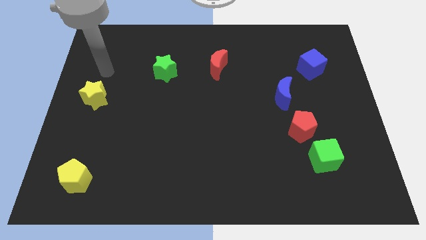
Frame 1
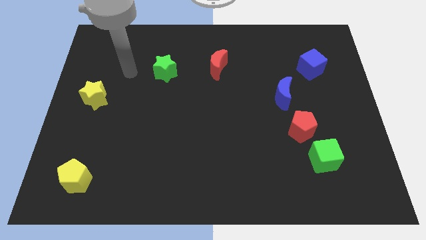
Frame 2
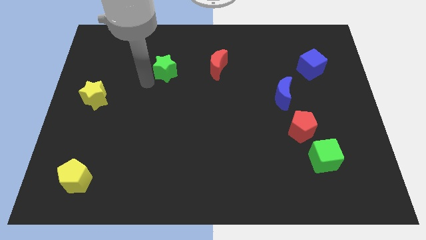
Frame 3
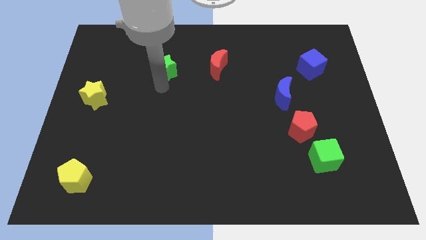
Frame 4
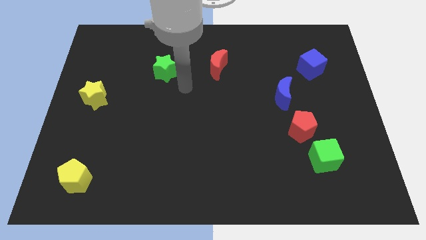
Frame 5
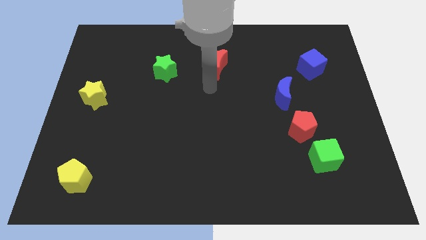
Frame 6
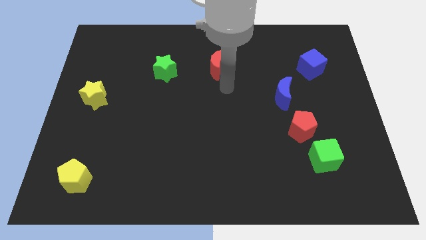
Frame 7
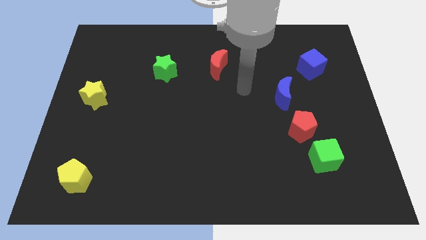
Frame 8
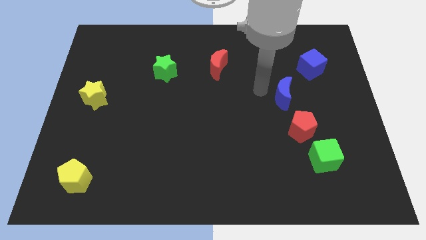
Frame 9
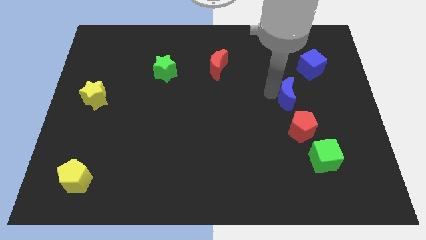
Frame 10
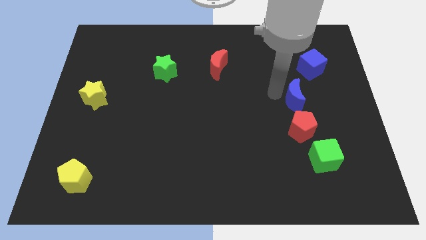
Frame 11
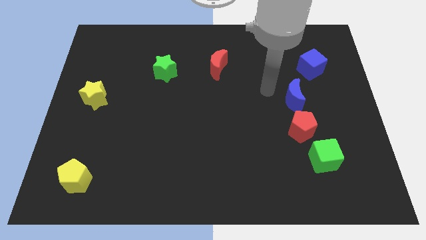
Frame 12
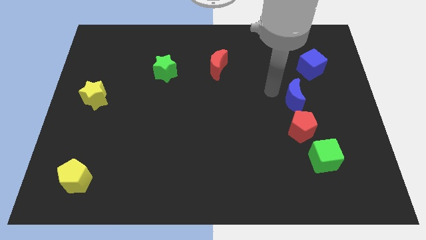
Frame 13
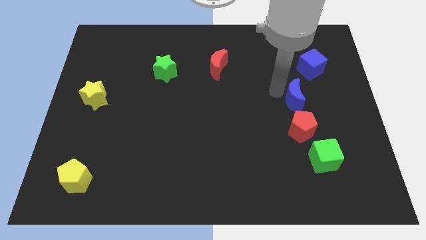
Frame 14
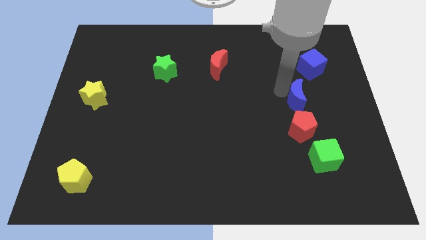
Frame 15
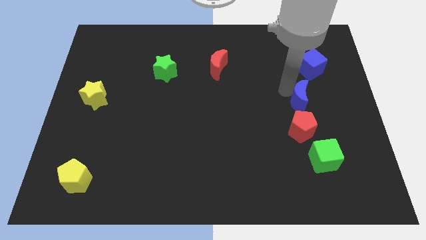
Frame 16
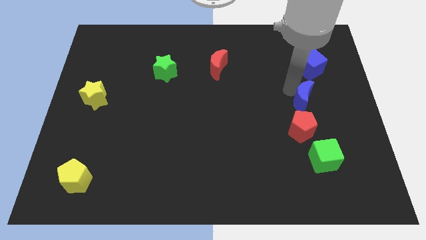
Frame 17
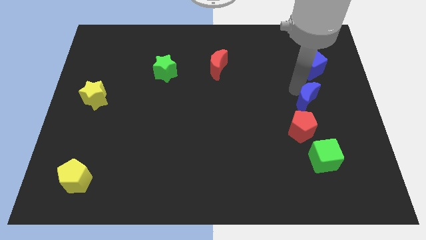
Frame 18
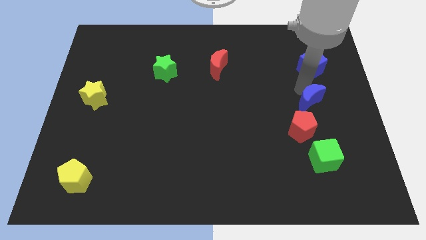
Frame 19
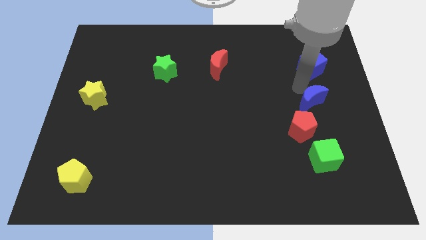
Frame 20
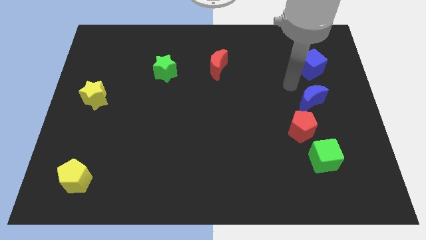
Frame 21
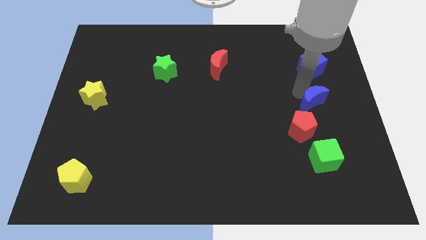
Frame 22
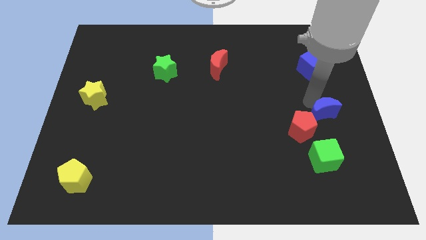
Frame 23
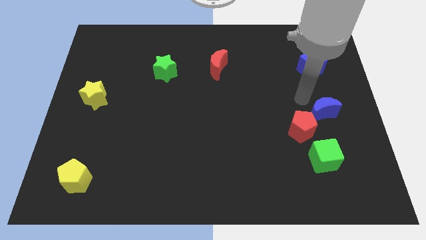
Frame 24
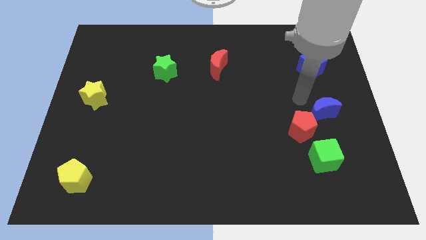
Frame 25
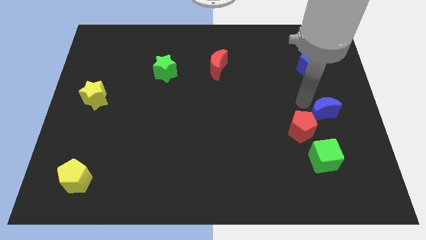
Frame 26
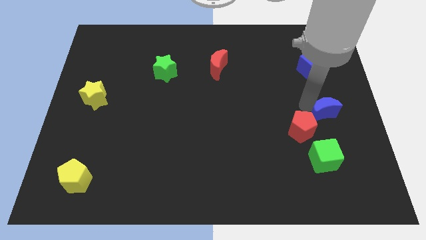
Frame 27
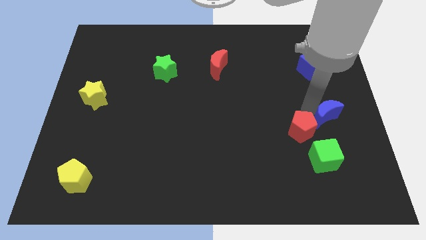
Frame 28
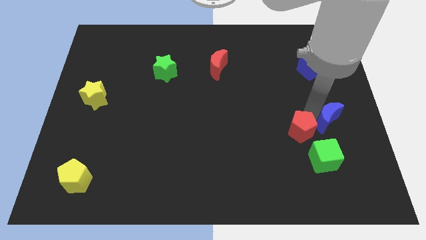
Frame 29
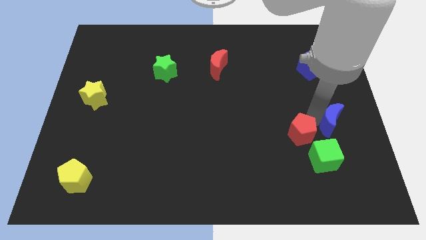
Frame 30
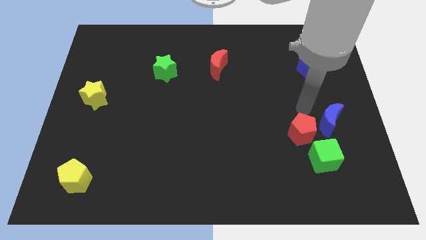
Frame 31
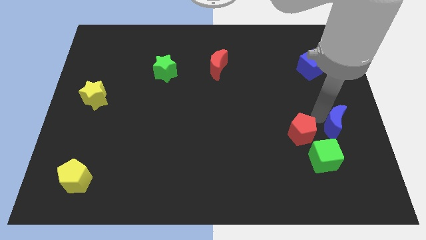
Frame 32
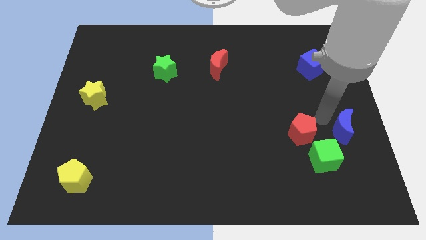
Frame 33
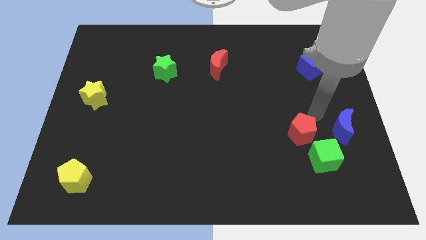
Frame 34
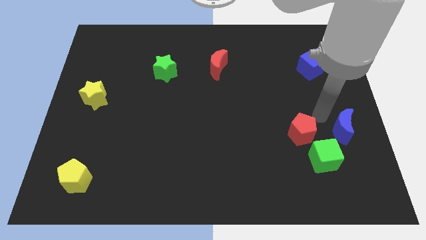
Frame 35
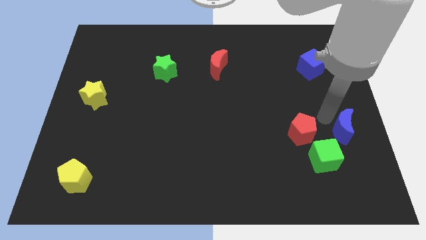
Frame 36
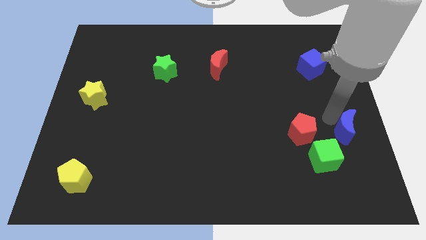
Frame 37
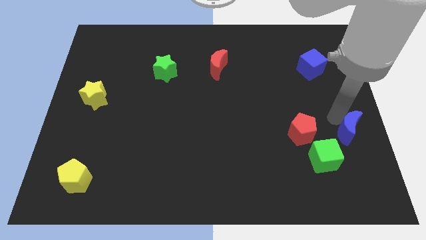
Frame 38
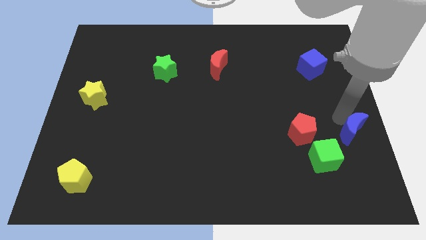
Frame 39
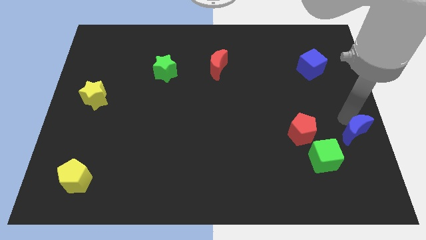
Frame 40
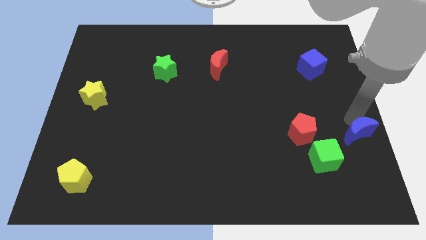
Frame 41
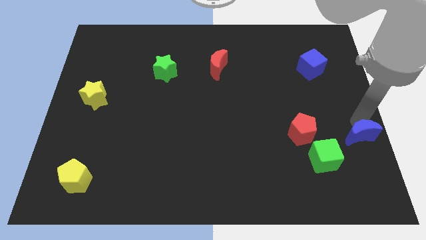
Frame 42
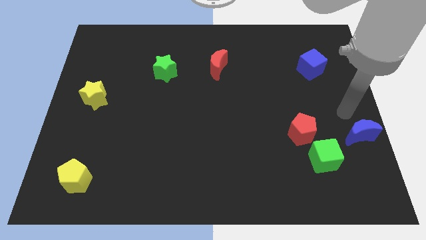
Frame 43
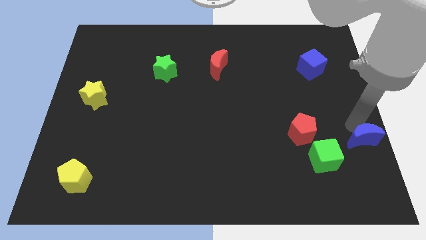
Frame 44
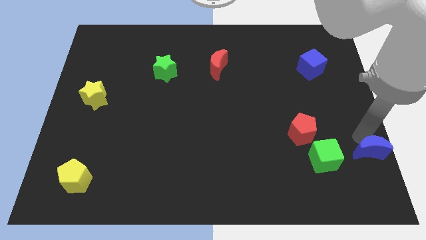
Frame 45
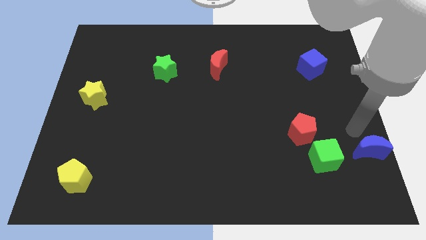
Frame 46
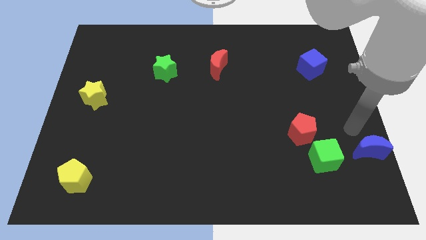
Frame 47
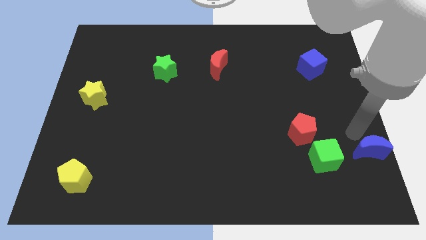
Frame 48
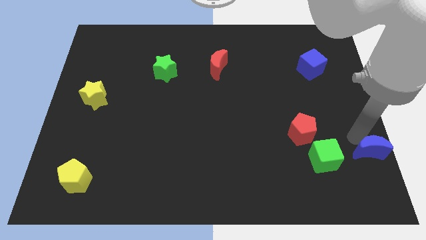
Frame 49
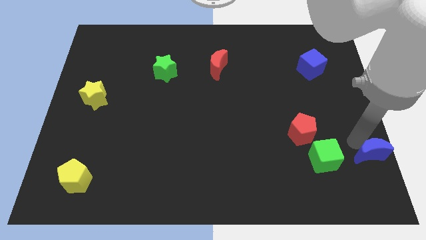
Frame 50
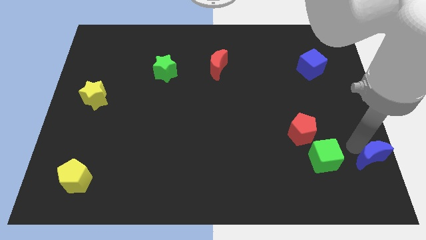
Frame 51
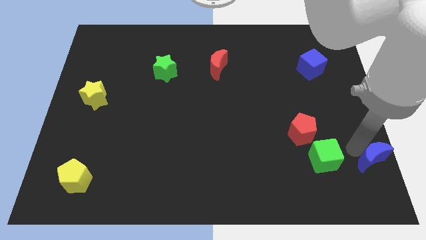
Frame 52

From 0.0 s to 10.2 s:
move the blue moon to the bottom right

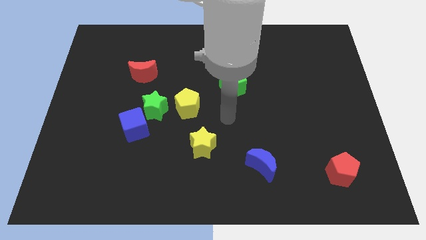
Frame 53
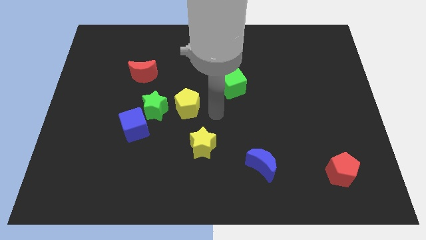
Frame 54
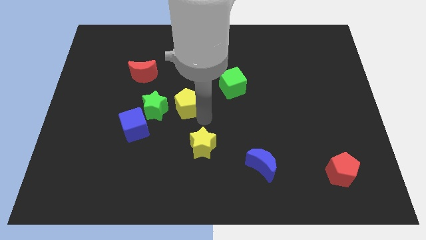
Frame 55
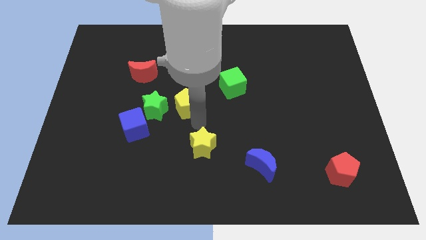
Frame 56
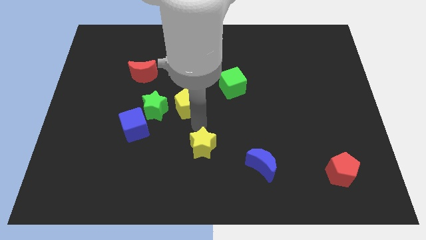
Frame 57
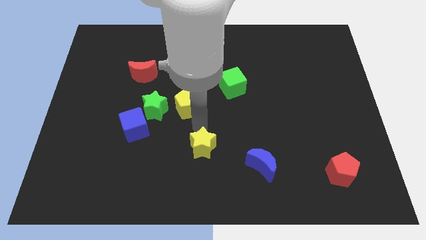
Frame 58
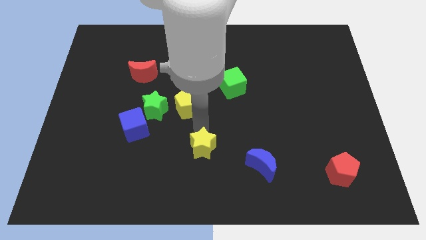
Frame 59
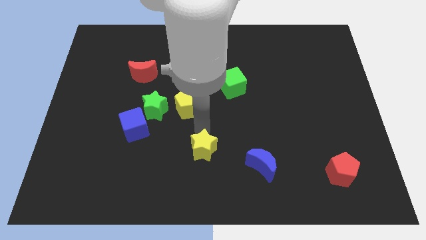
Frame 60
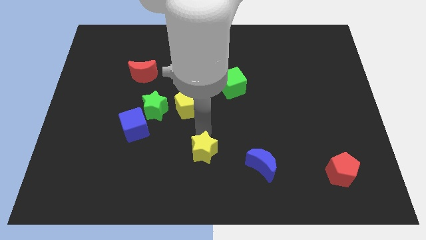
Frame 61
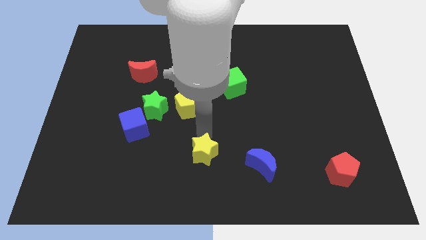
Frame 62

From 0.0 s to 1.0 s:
push the yellow star to the bottom
